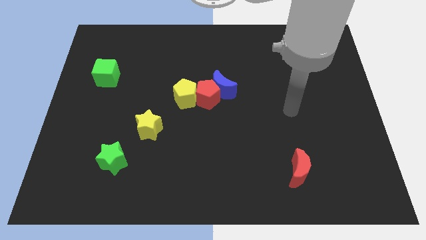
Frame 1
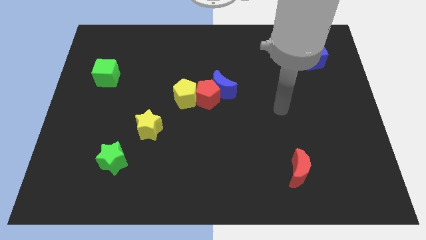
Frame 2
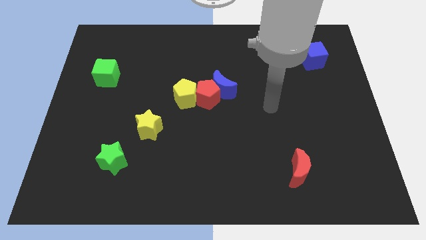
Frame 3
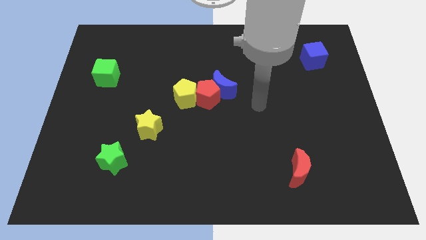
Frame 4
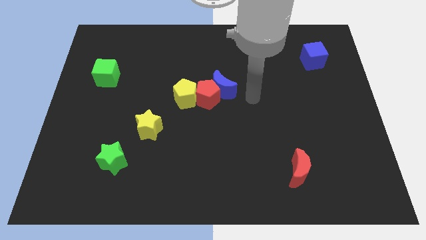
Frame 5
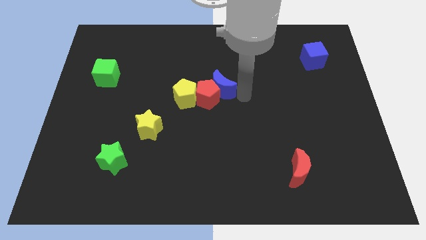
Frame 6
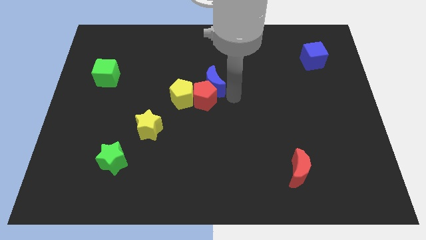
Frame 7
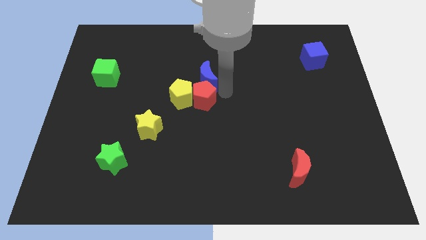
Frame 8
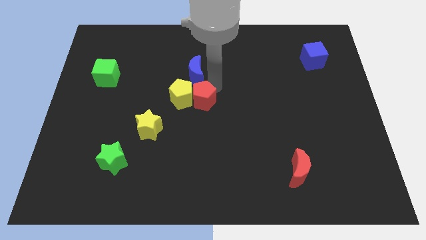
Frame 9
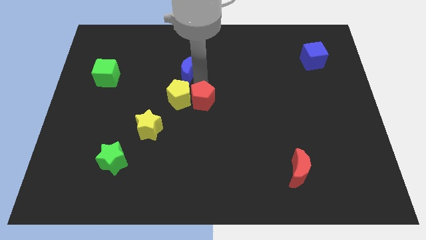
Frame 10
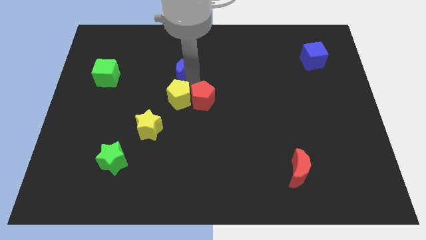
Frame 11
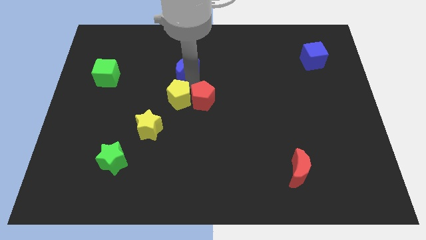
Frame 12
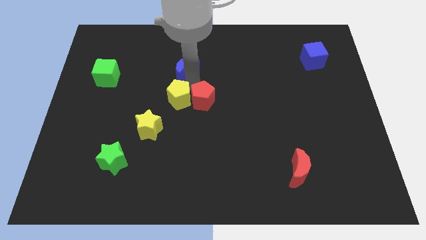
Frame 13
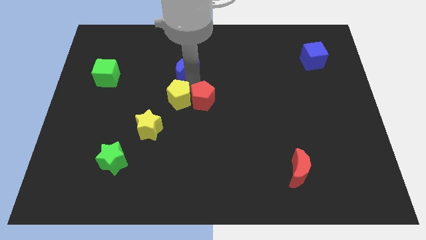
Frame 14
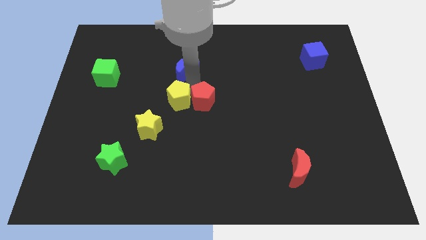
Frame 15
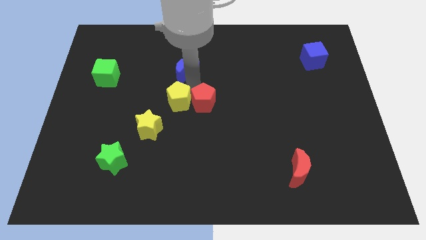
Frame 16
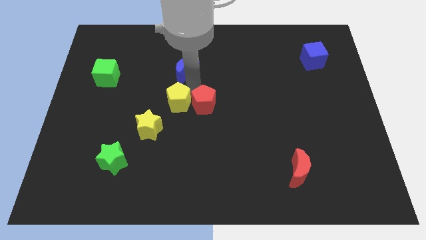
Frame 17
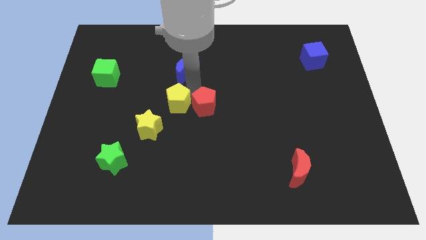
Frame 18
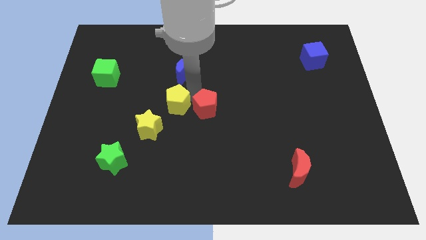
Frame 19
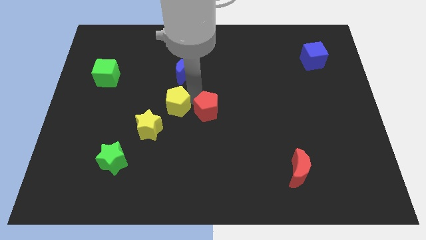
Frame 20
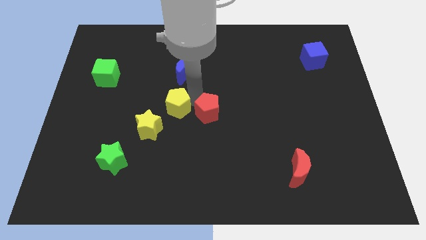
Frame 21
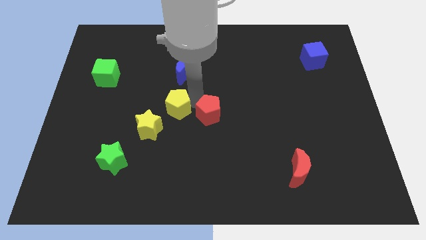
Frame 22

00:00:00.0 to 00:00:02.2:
separate the red pentagon from the blue moon and yellow pentagon

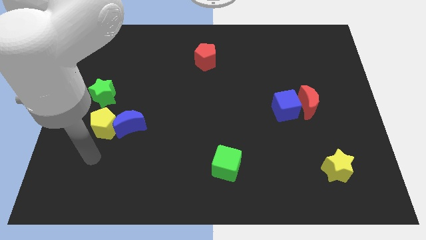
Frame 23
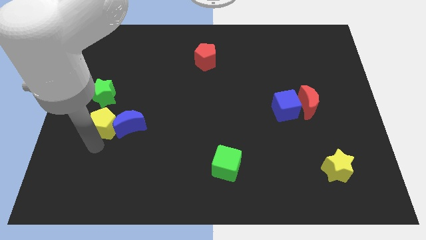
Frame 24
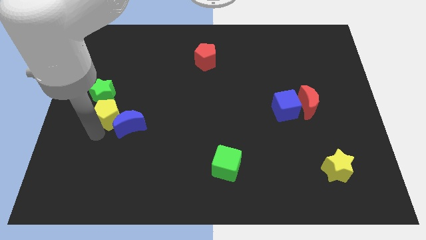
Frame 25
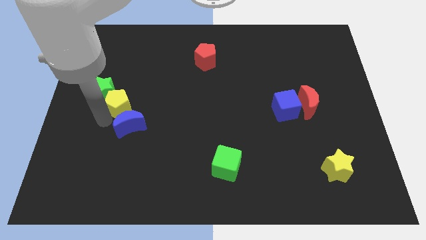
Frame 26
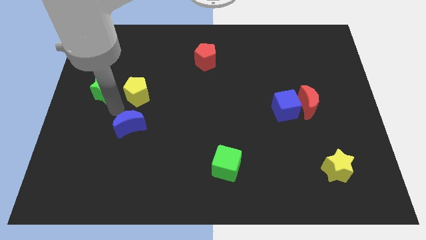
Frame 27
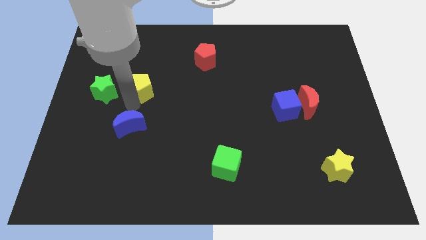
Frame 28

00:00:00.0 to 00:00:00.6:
pull the blue moon apart from the yellow pentagon

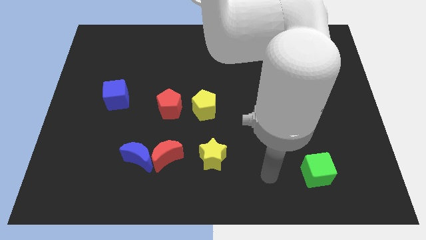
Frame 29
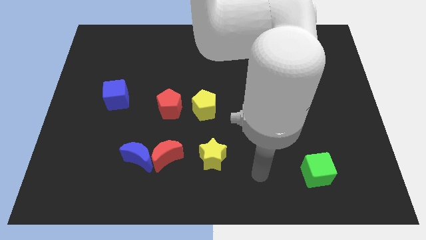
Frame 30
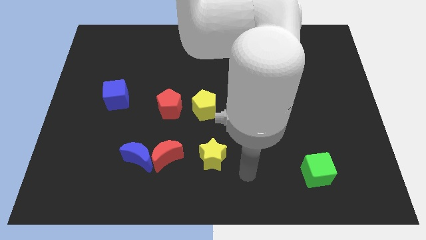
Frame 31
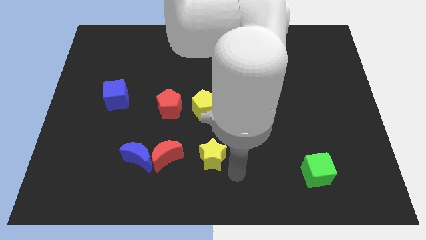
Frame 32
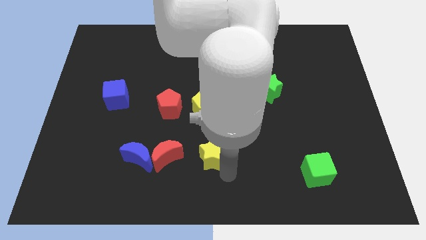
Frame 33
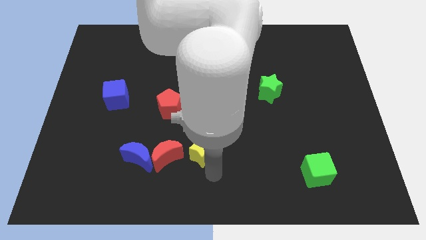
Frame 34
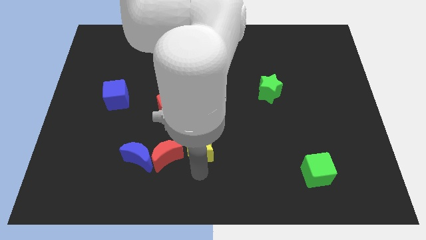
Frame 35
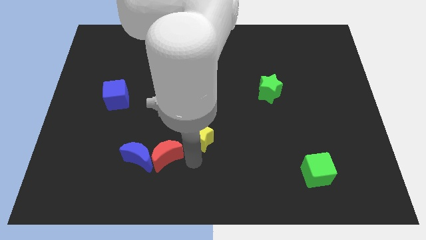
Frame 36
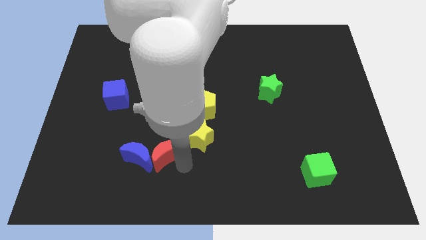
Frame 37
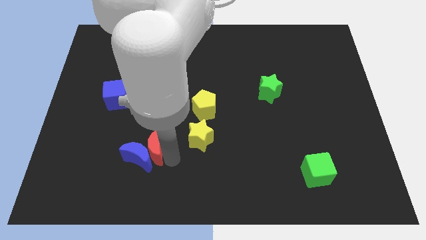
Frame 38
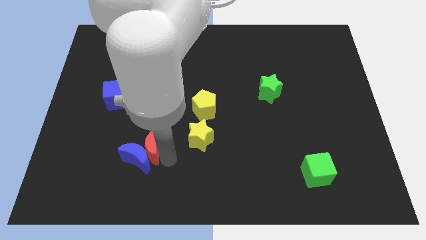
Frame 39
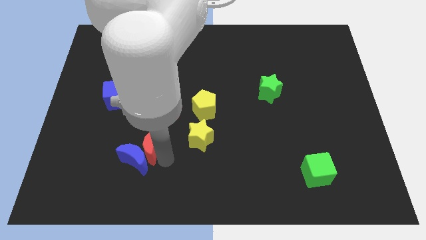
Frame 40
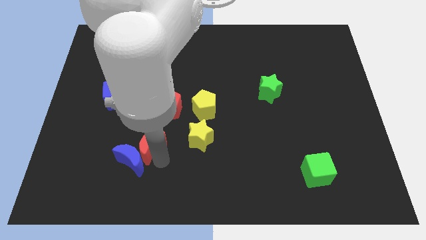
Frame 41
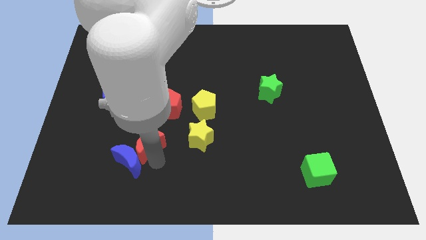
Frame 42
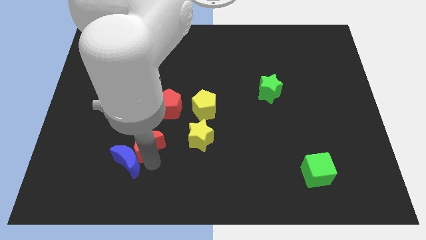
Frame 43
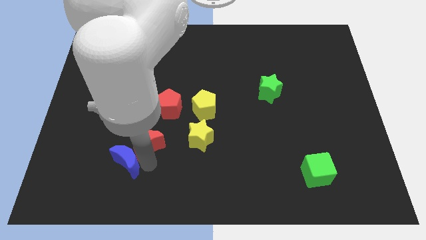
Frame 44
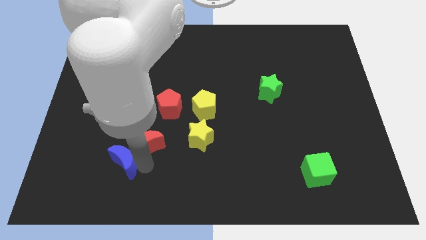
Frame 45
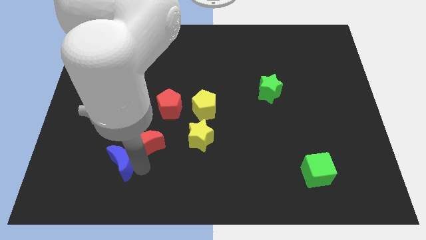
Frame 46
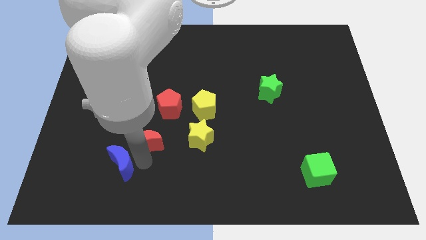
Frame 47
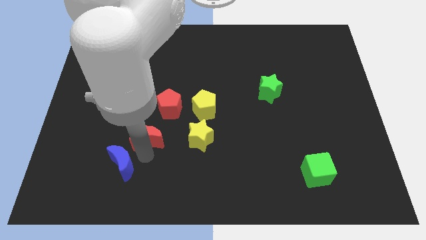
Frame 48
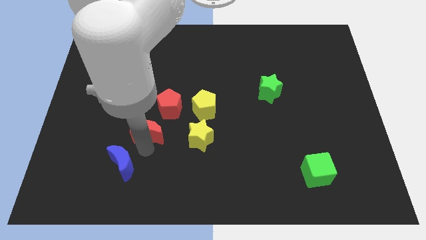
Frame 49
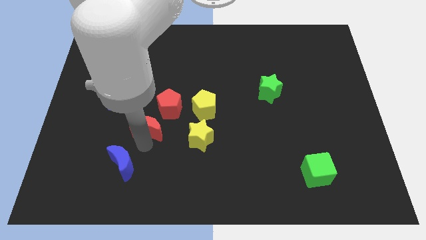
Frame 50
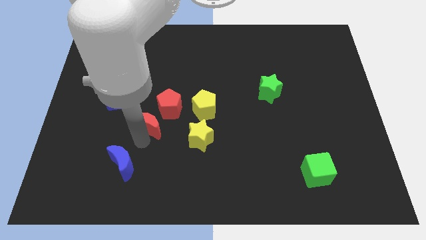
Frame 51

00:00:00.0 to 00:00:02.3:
move the blue moon away from the red moon

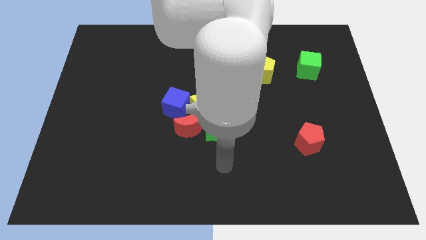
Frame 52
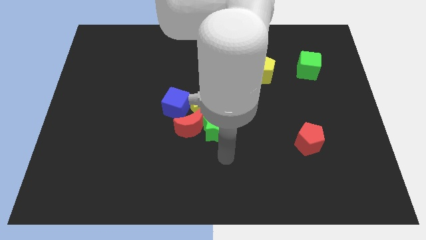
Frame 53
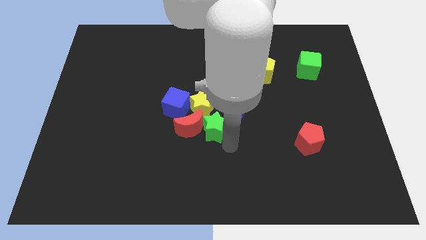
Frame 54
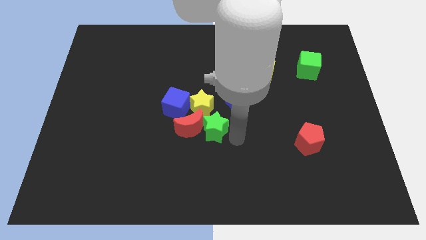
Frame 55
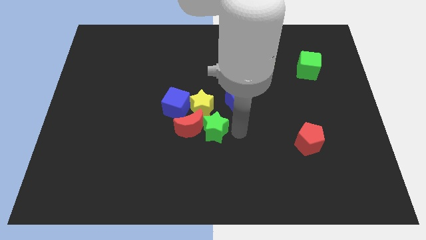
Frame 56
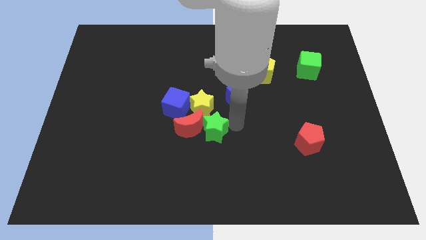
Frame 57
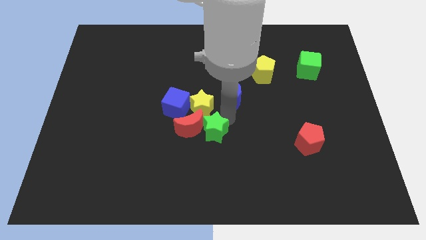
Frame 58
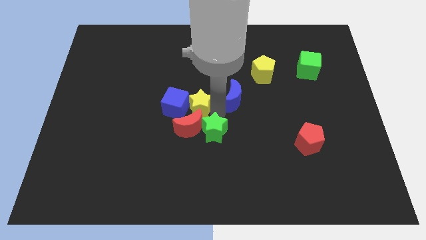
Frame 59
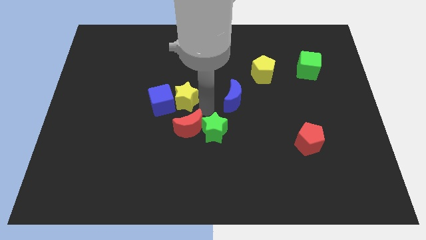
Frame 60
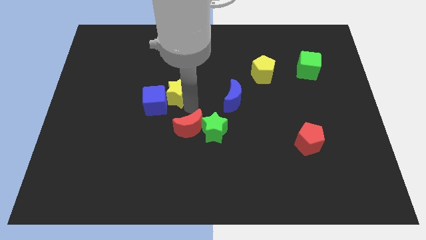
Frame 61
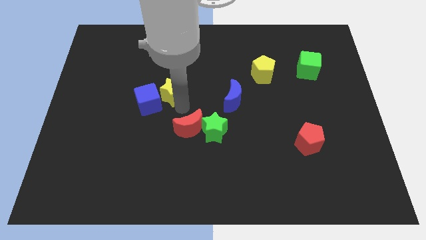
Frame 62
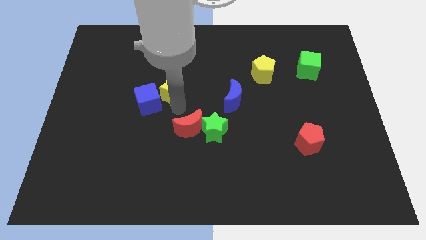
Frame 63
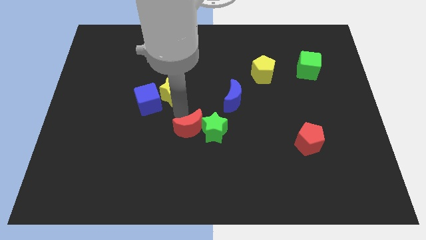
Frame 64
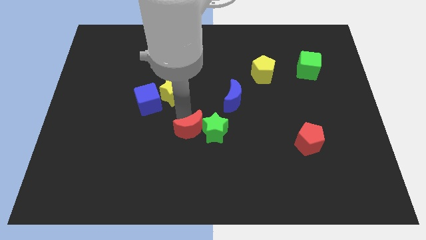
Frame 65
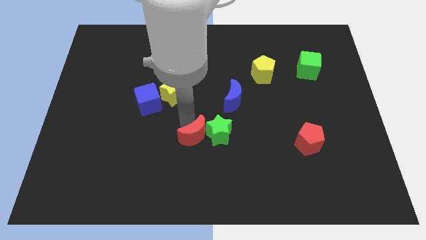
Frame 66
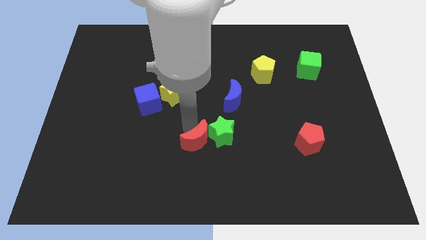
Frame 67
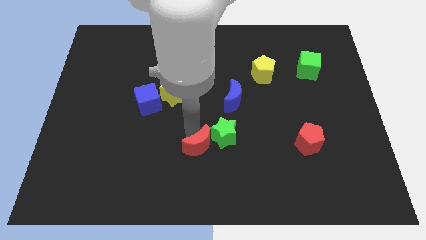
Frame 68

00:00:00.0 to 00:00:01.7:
move the red moon away from the clump

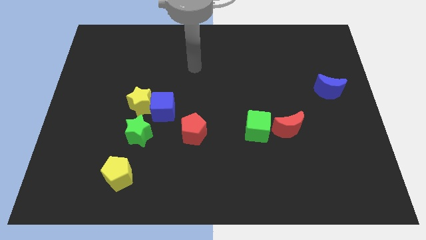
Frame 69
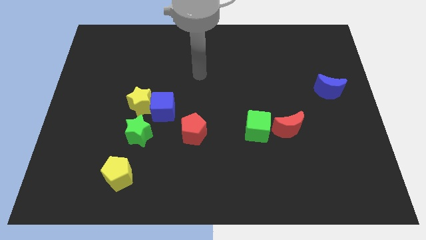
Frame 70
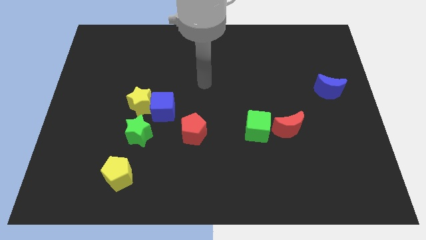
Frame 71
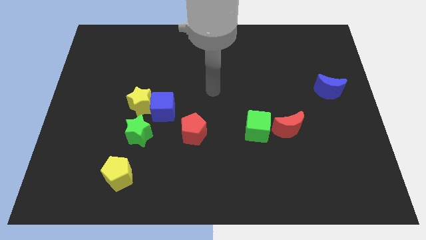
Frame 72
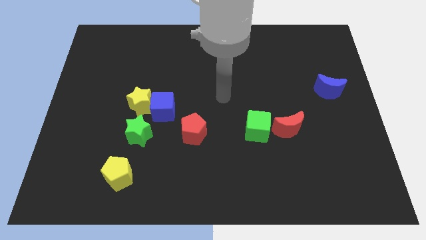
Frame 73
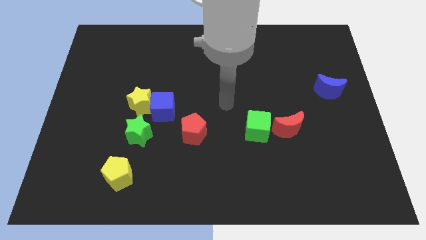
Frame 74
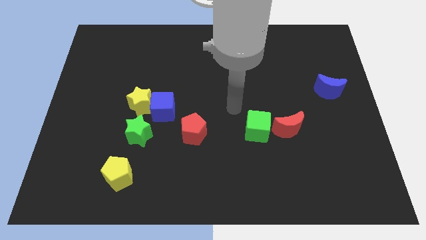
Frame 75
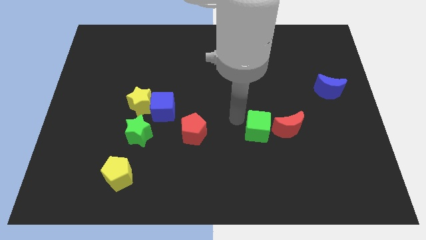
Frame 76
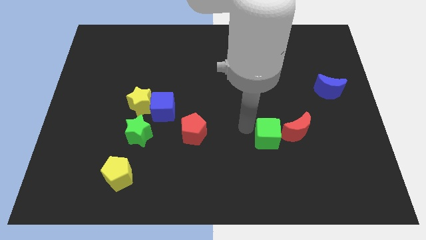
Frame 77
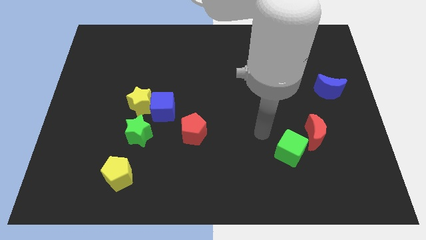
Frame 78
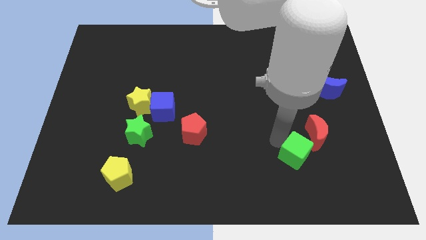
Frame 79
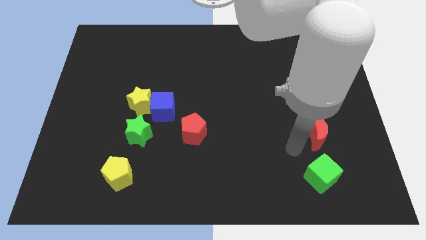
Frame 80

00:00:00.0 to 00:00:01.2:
move the red moon away from the green cube

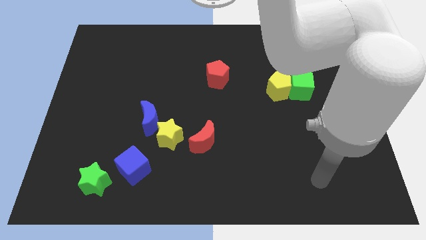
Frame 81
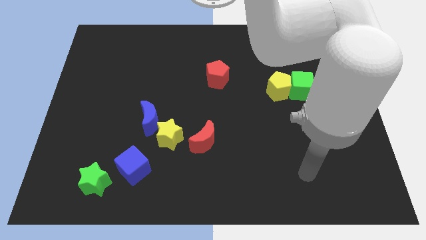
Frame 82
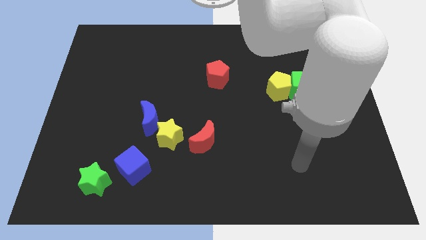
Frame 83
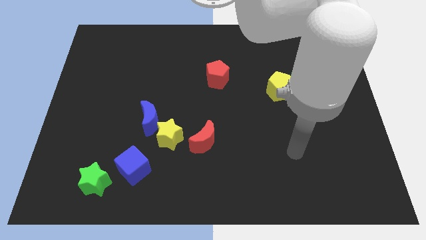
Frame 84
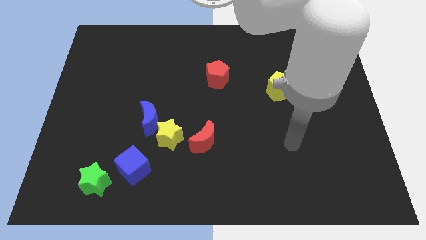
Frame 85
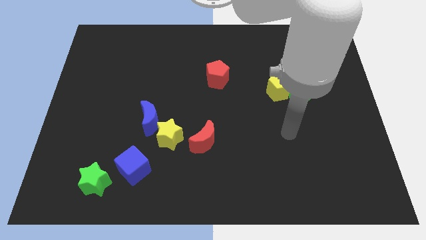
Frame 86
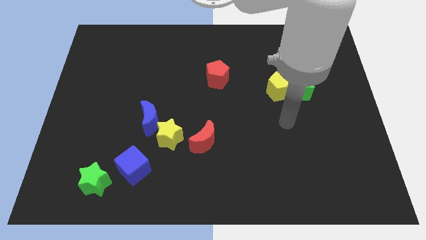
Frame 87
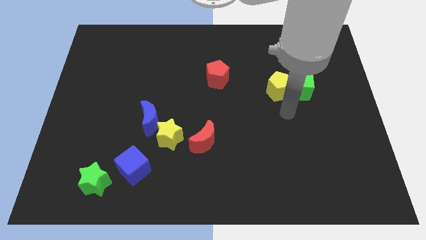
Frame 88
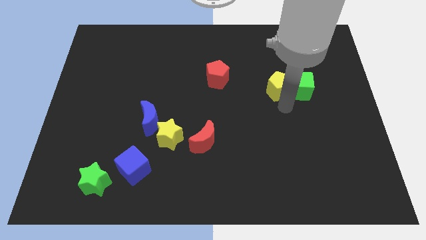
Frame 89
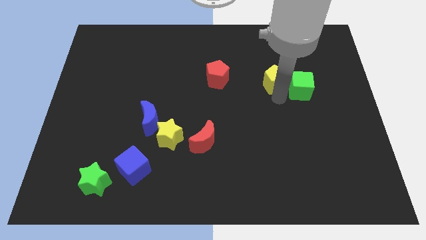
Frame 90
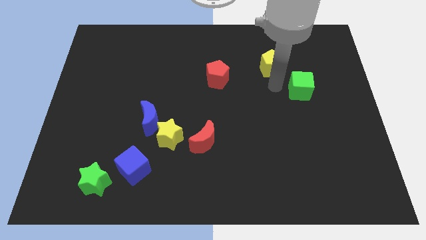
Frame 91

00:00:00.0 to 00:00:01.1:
pull the green cube apart from the yellow pentagon

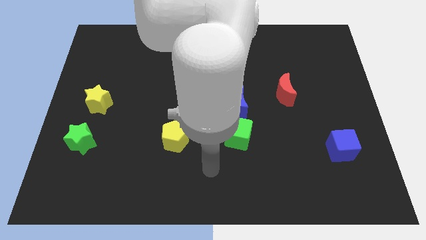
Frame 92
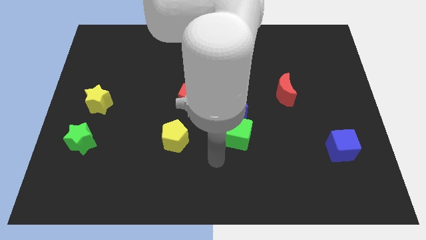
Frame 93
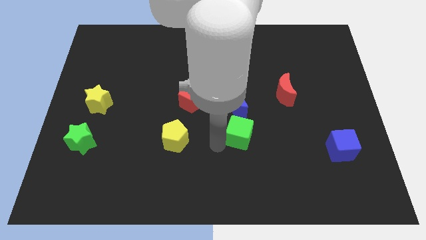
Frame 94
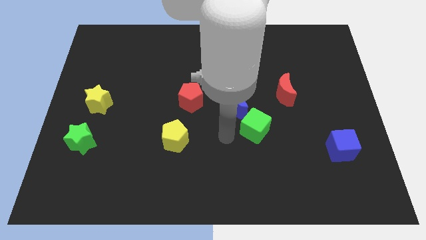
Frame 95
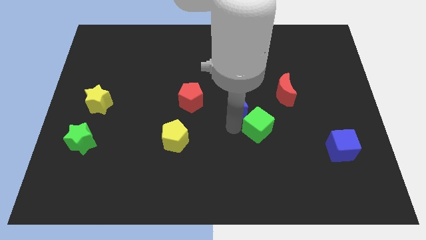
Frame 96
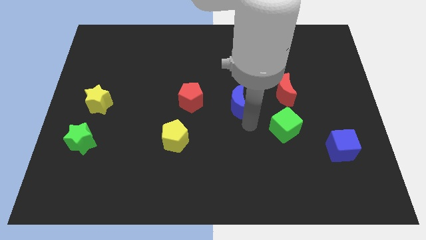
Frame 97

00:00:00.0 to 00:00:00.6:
separate the blue moon from the green cube
